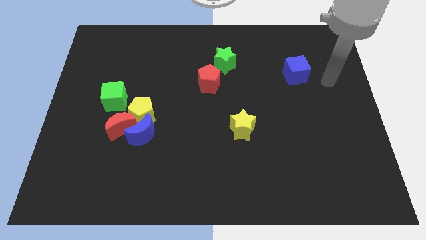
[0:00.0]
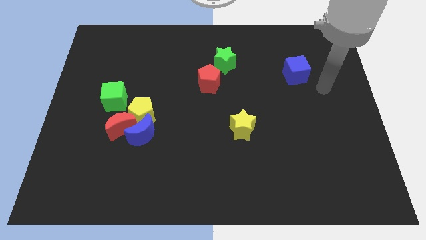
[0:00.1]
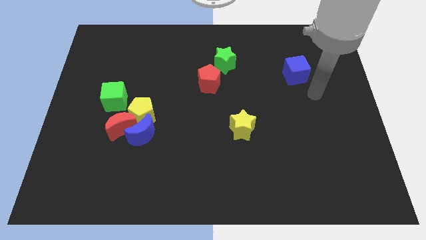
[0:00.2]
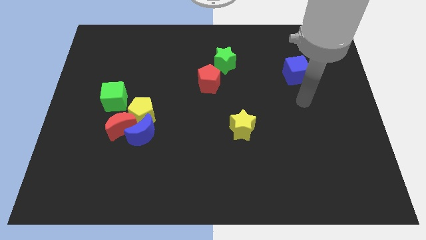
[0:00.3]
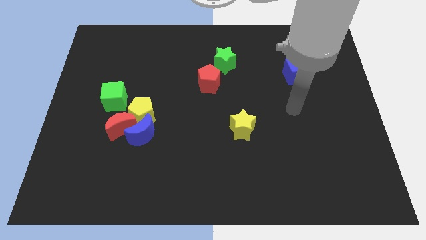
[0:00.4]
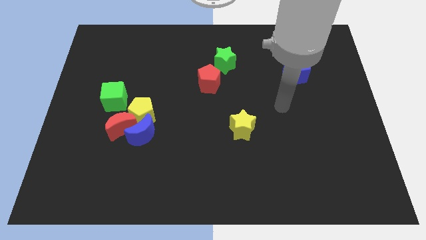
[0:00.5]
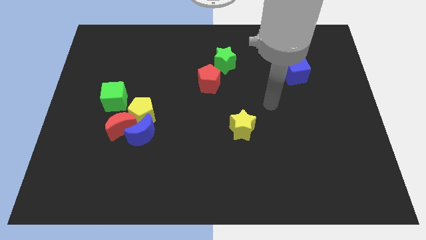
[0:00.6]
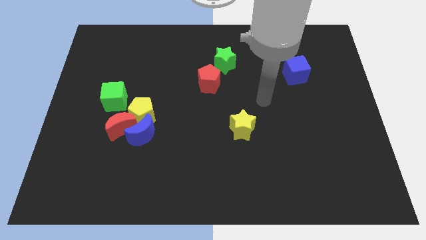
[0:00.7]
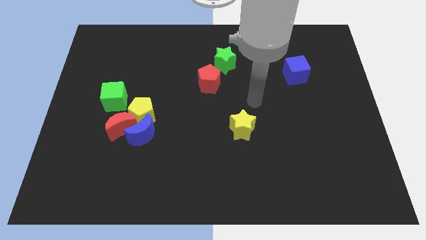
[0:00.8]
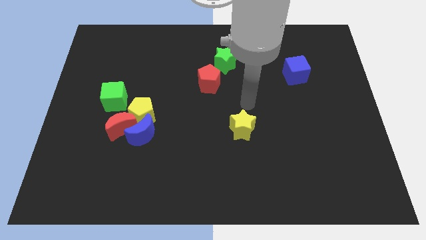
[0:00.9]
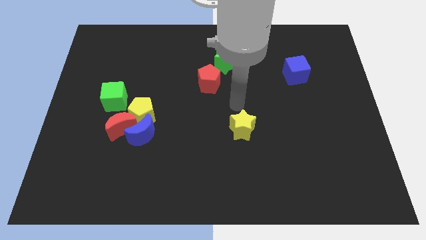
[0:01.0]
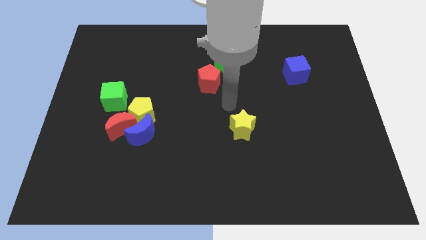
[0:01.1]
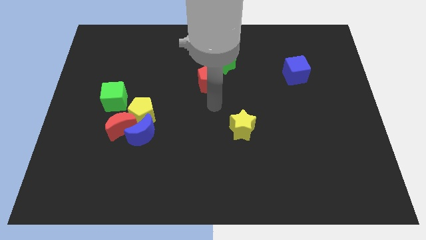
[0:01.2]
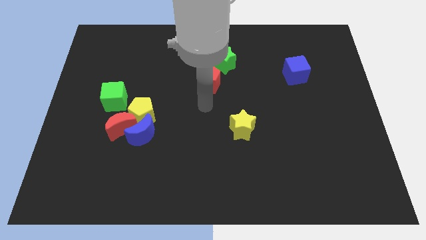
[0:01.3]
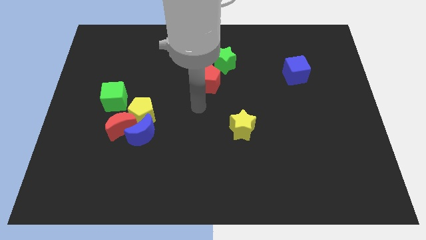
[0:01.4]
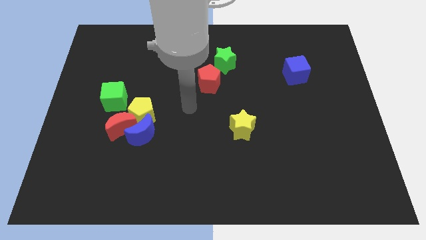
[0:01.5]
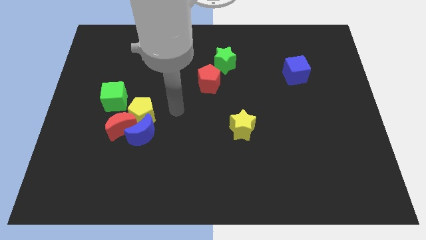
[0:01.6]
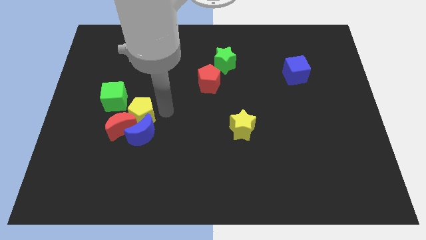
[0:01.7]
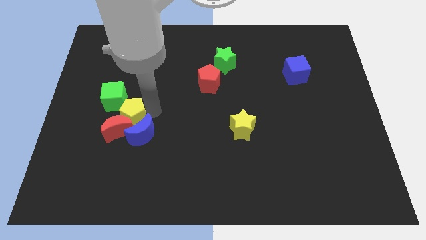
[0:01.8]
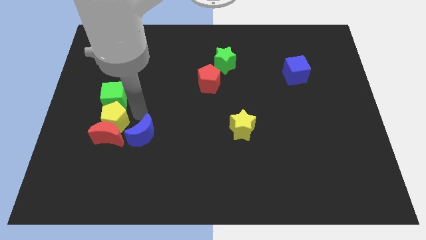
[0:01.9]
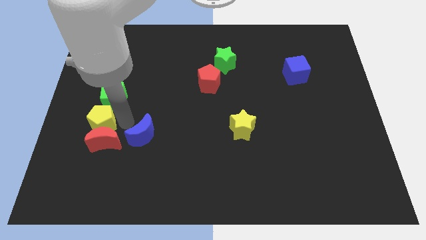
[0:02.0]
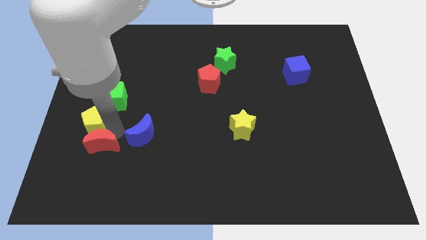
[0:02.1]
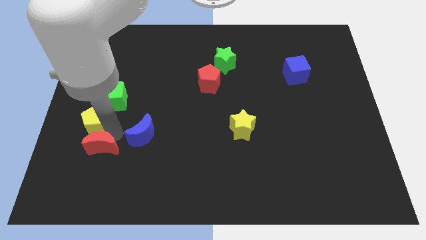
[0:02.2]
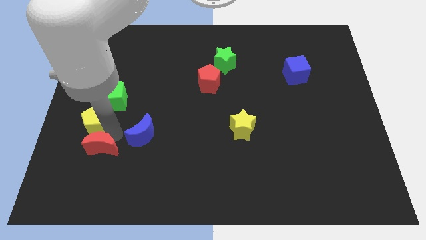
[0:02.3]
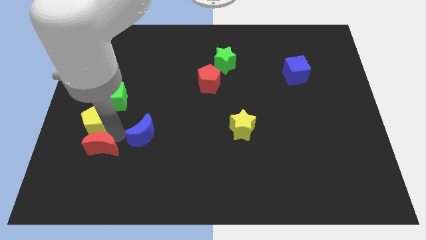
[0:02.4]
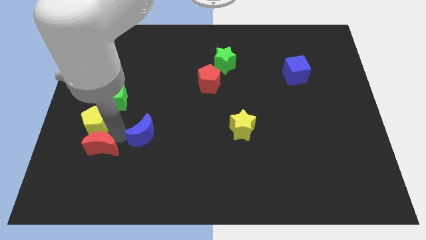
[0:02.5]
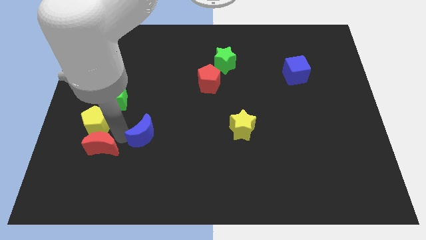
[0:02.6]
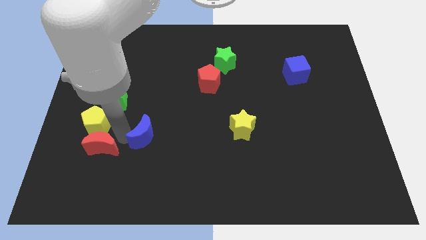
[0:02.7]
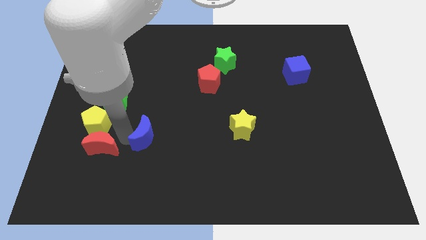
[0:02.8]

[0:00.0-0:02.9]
separate the blue moon from the red moon and yellow pentagon

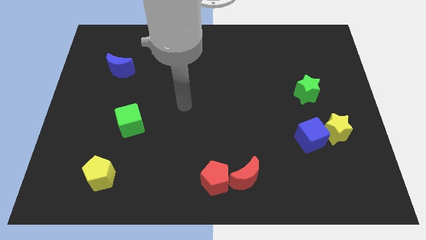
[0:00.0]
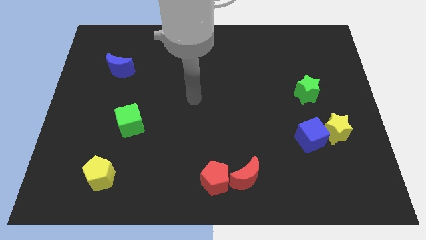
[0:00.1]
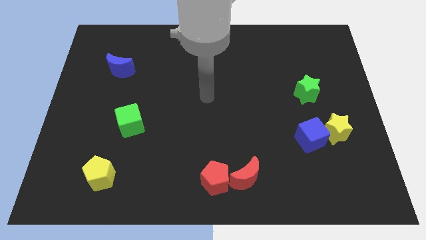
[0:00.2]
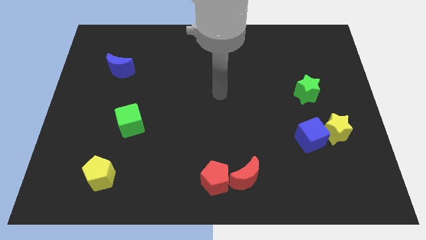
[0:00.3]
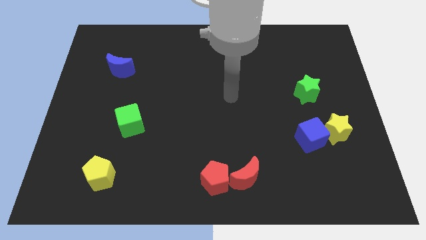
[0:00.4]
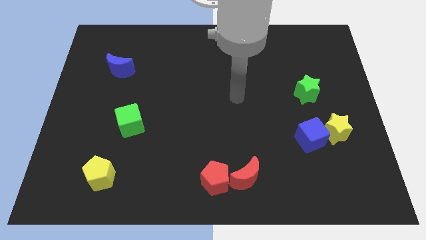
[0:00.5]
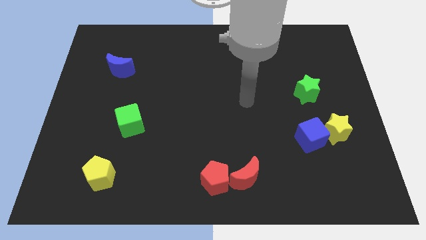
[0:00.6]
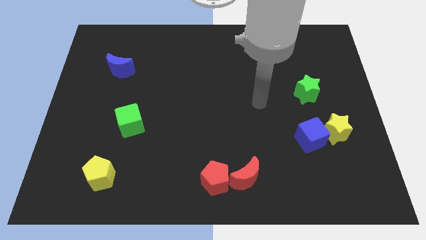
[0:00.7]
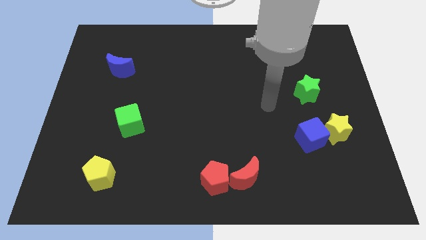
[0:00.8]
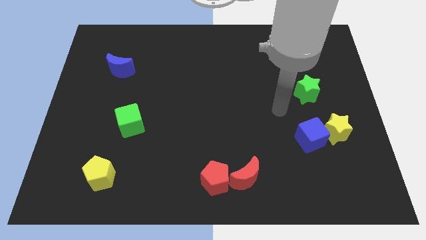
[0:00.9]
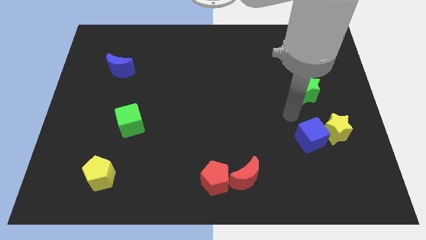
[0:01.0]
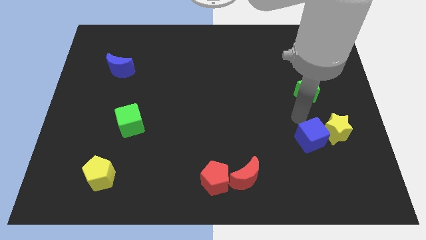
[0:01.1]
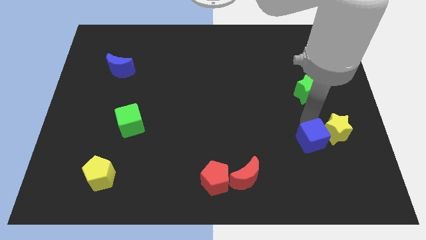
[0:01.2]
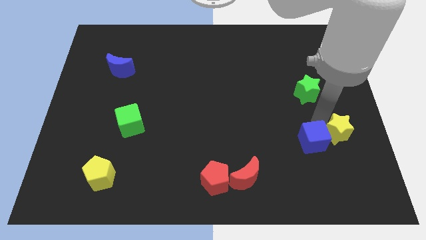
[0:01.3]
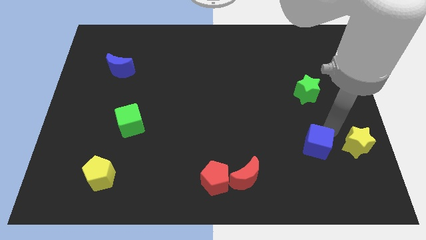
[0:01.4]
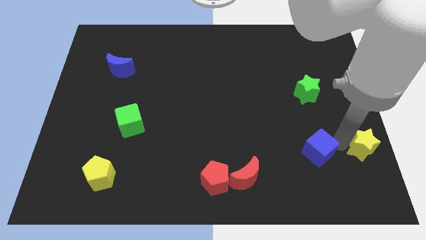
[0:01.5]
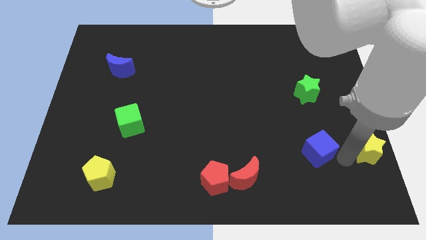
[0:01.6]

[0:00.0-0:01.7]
separate the blue cube from the yellow star

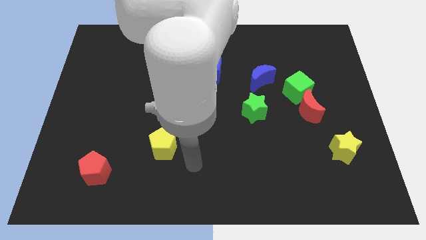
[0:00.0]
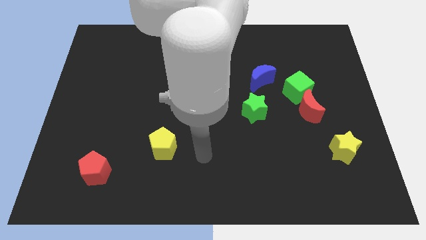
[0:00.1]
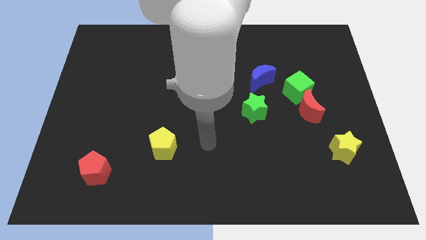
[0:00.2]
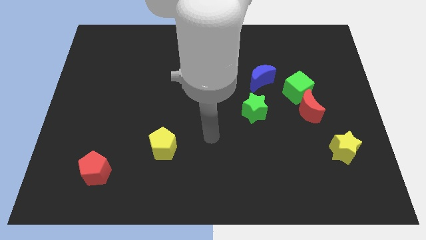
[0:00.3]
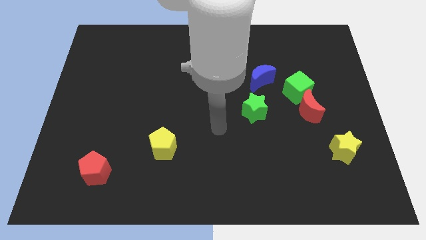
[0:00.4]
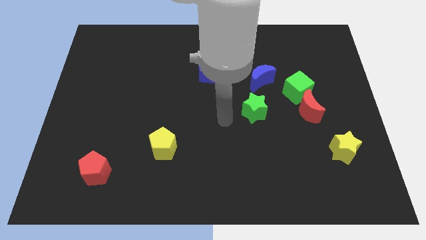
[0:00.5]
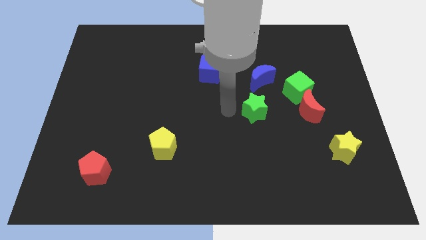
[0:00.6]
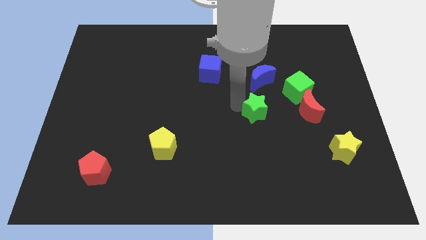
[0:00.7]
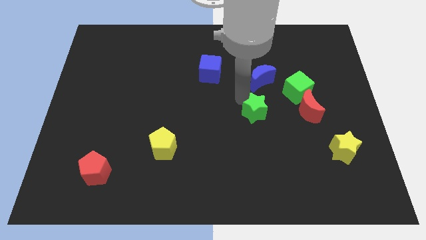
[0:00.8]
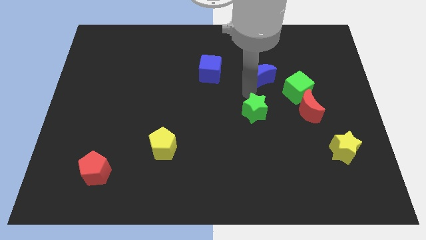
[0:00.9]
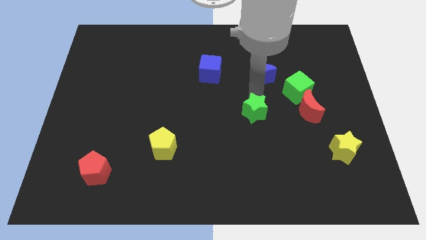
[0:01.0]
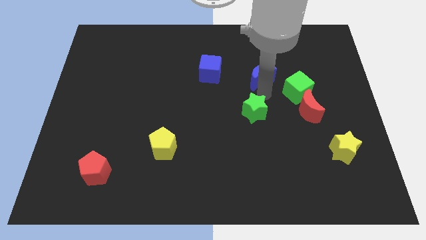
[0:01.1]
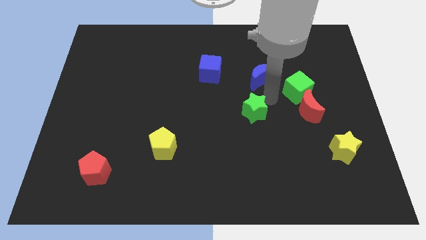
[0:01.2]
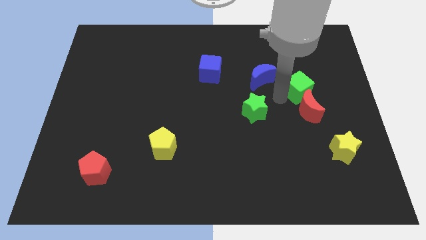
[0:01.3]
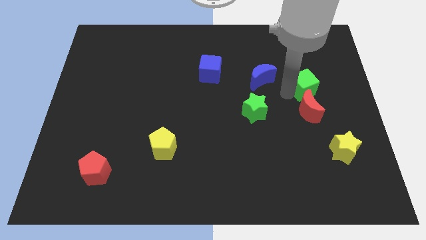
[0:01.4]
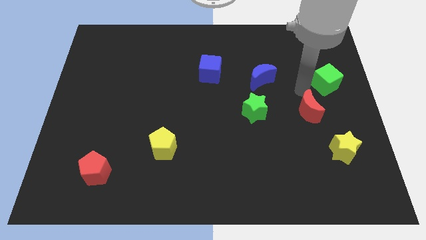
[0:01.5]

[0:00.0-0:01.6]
separate the red moon from the green cube

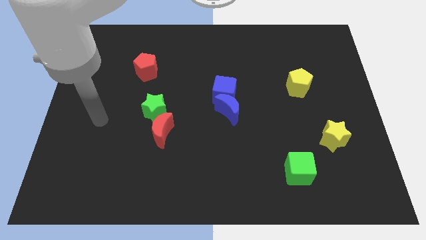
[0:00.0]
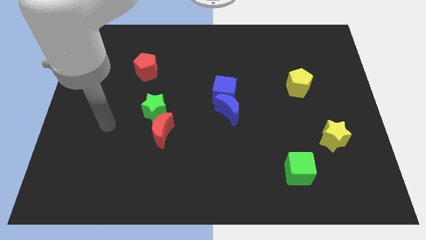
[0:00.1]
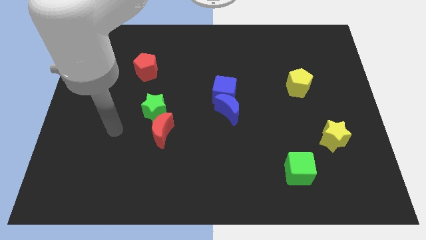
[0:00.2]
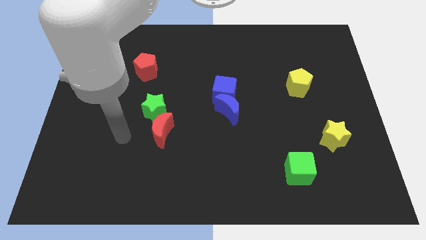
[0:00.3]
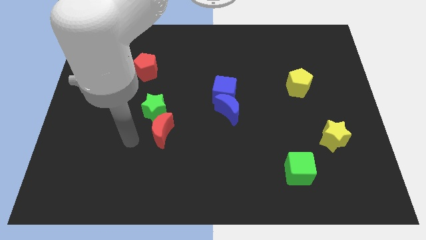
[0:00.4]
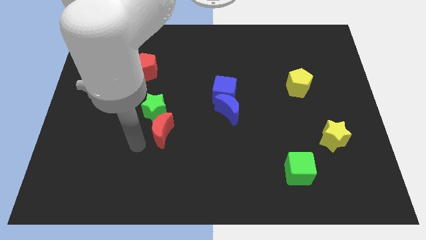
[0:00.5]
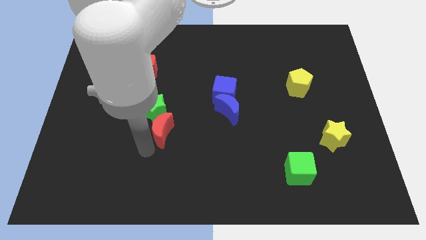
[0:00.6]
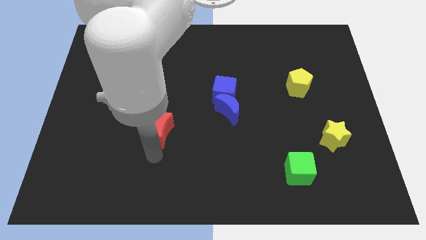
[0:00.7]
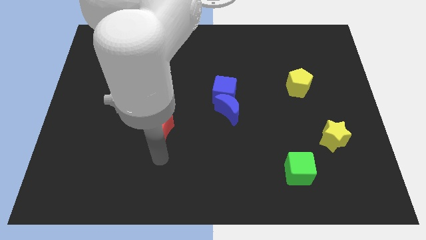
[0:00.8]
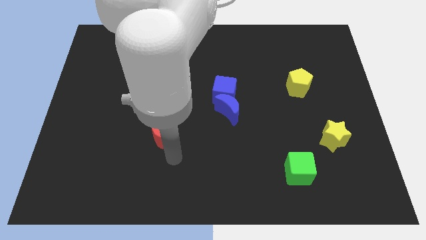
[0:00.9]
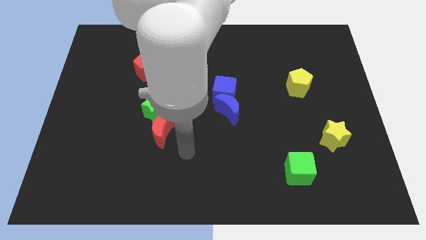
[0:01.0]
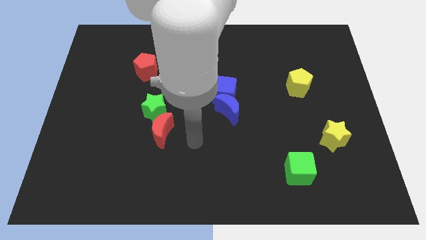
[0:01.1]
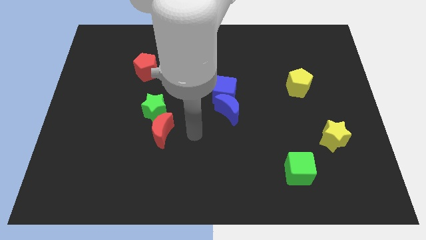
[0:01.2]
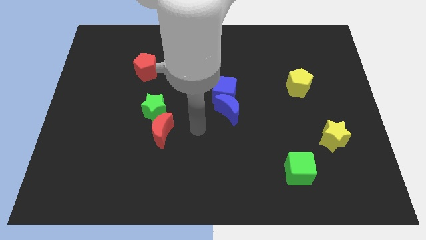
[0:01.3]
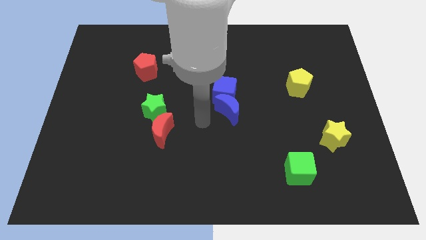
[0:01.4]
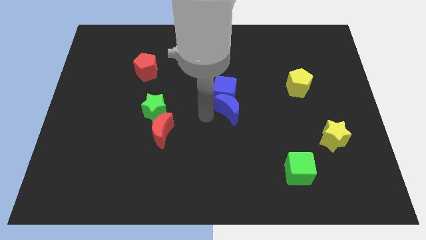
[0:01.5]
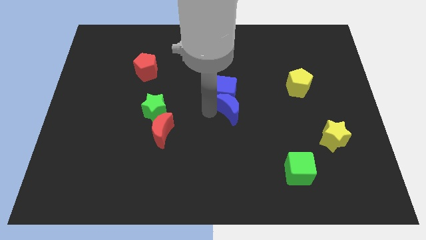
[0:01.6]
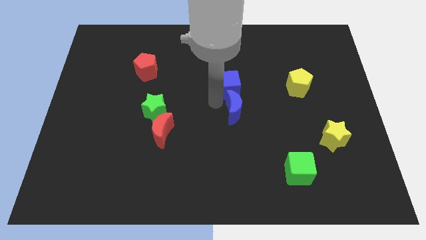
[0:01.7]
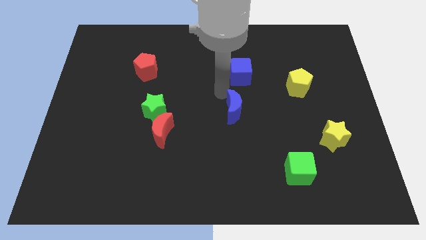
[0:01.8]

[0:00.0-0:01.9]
separate the blue moon from the blue cube

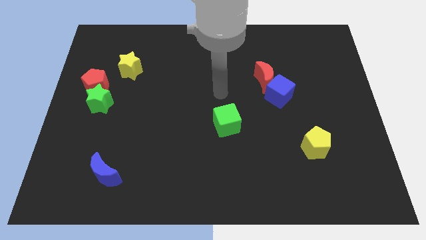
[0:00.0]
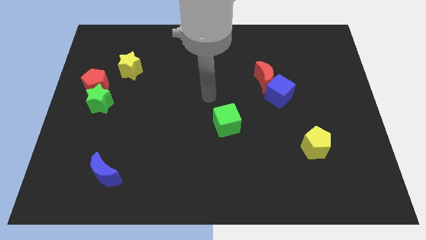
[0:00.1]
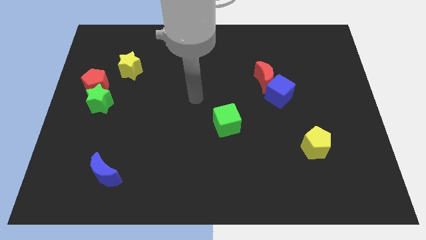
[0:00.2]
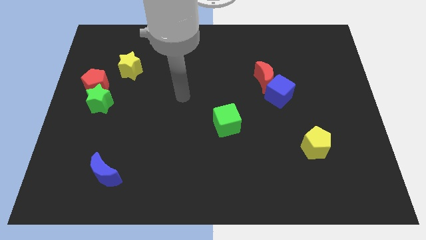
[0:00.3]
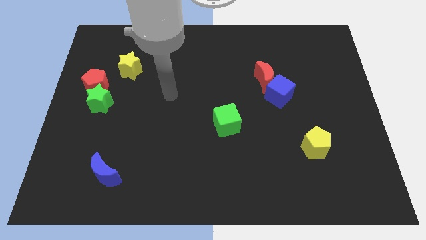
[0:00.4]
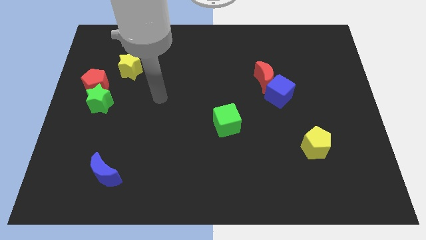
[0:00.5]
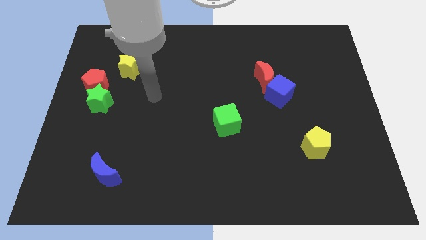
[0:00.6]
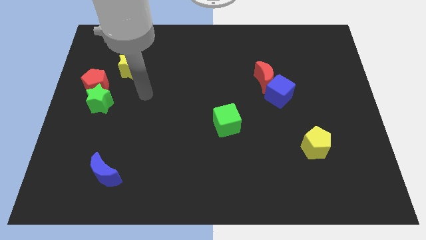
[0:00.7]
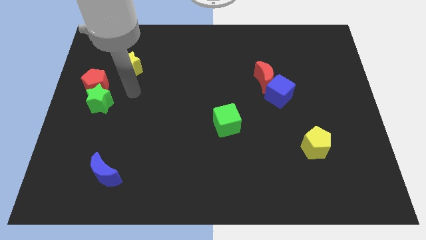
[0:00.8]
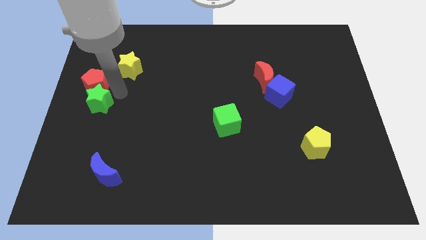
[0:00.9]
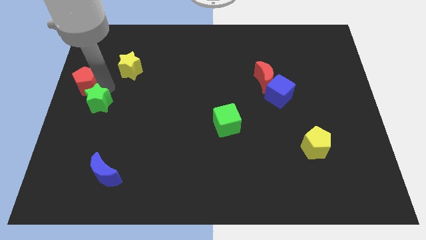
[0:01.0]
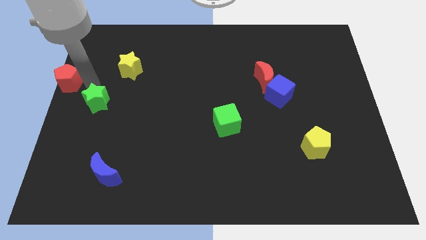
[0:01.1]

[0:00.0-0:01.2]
move the green star away from the red pentagon
